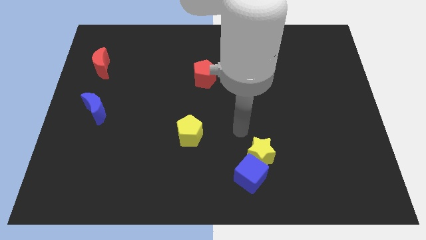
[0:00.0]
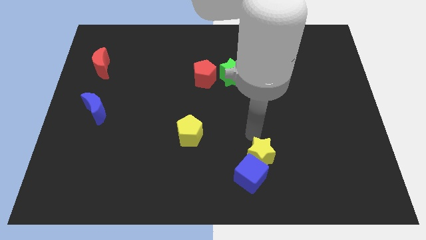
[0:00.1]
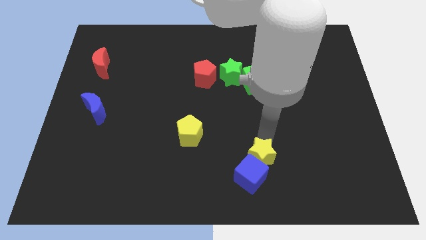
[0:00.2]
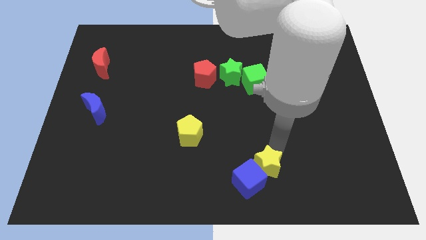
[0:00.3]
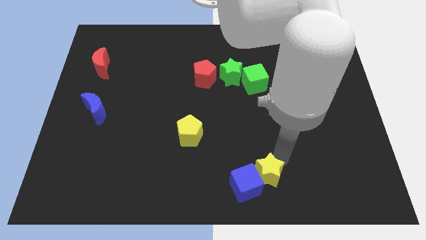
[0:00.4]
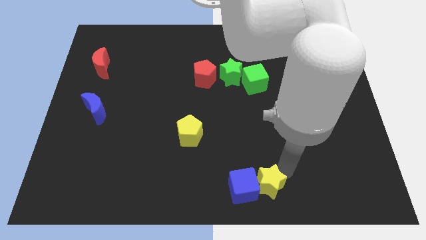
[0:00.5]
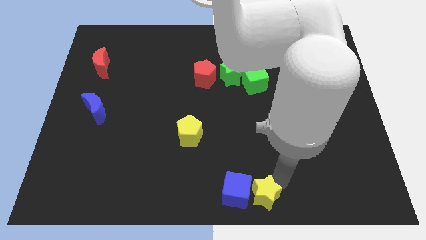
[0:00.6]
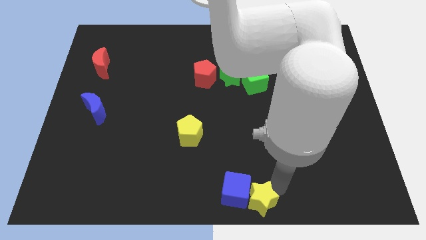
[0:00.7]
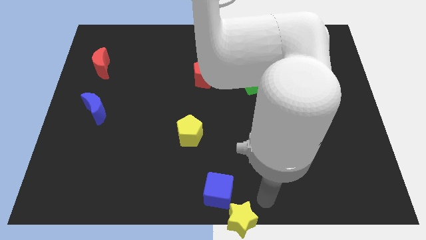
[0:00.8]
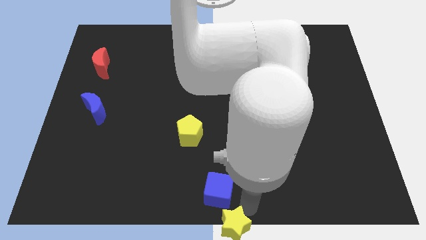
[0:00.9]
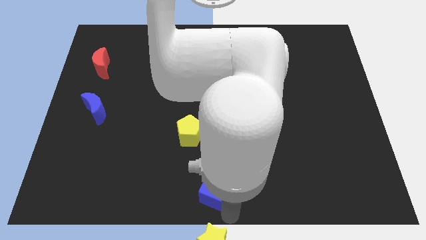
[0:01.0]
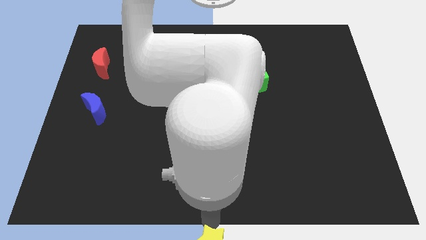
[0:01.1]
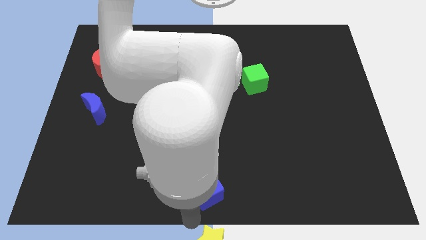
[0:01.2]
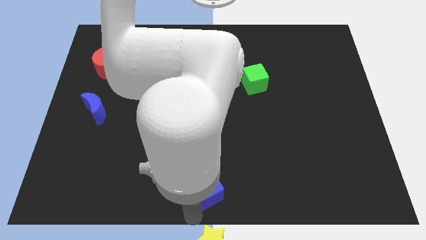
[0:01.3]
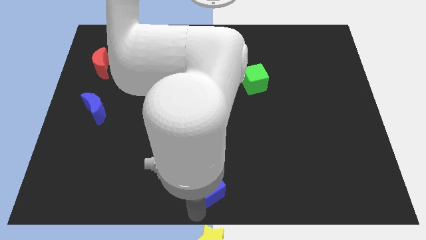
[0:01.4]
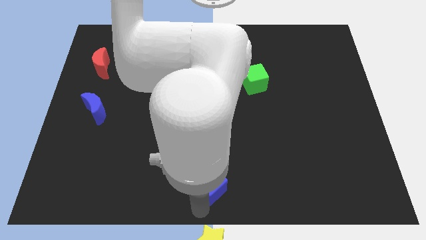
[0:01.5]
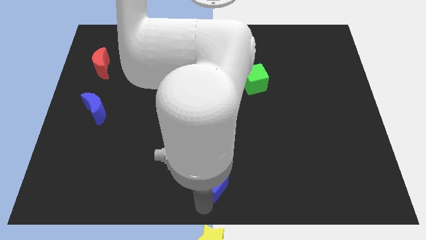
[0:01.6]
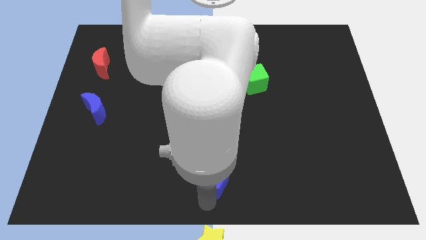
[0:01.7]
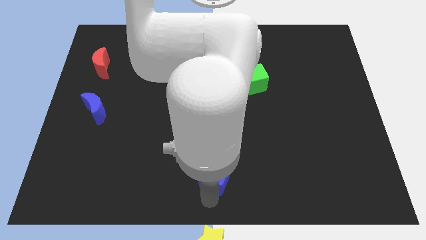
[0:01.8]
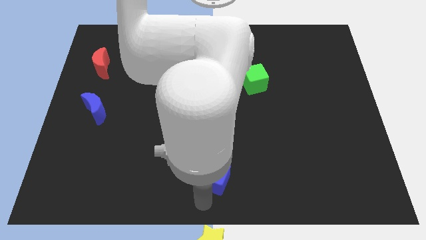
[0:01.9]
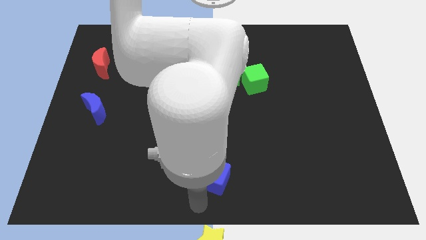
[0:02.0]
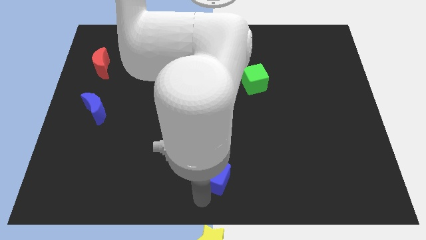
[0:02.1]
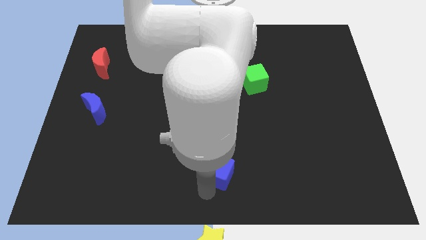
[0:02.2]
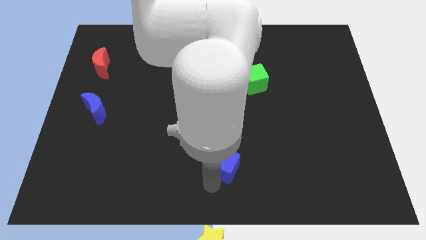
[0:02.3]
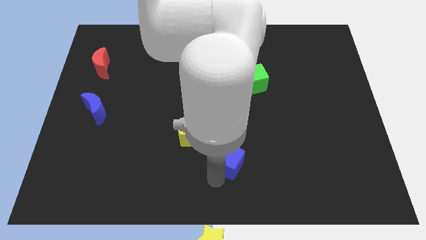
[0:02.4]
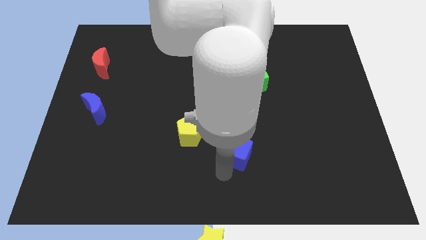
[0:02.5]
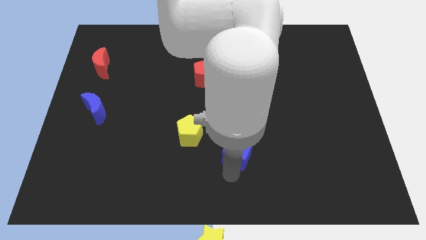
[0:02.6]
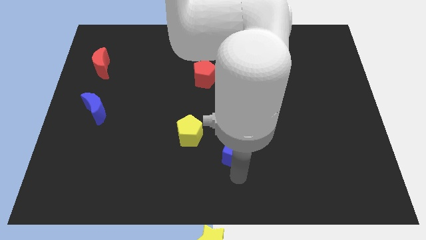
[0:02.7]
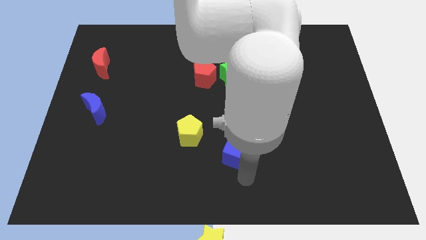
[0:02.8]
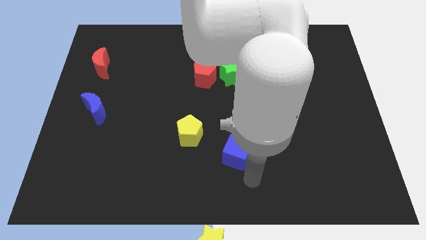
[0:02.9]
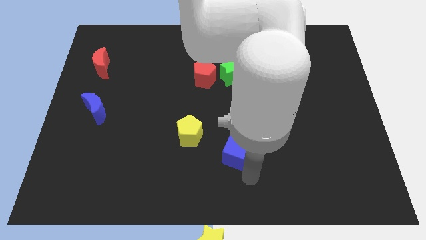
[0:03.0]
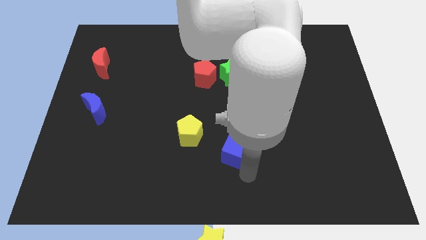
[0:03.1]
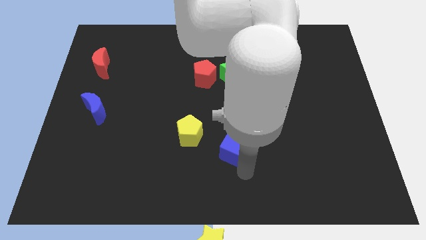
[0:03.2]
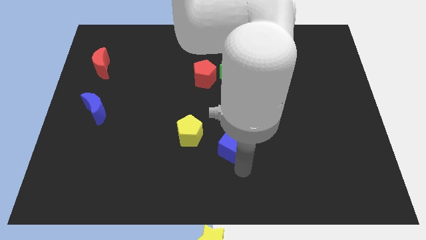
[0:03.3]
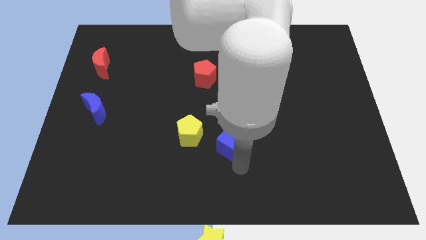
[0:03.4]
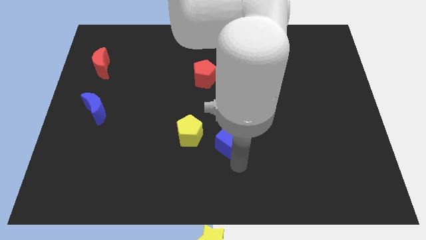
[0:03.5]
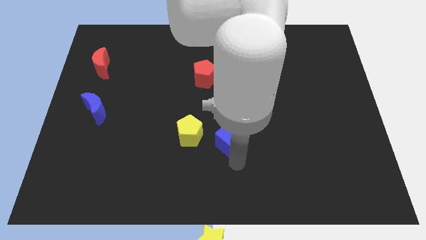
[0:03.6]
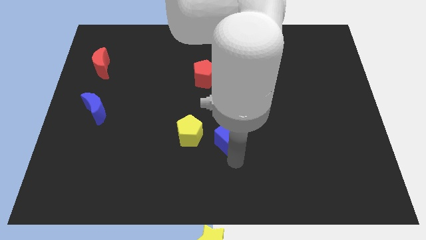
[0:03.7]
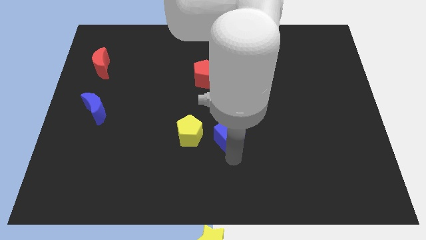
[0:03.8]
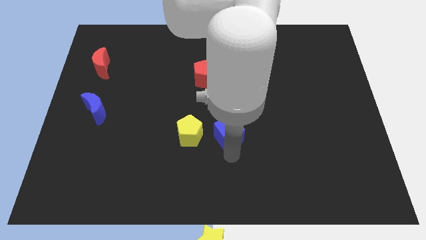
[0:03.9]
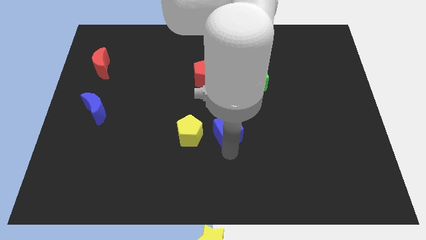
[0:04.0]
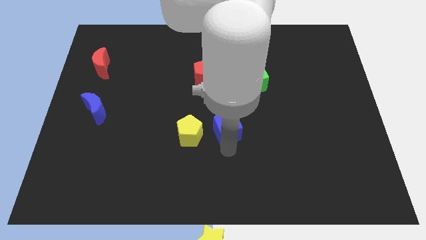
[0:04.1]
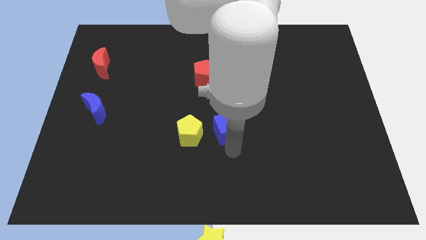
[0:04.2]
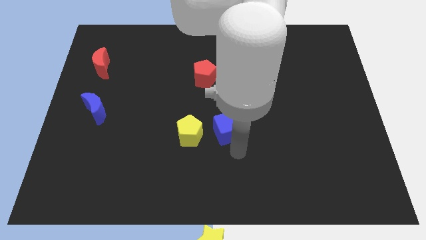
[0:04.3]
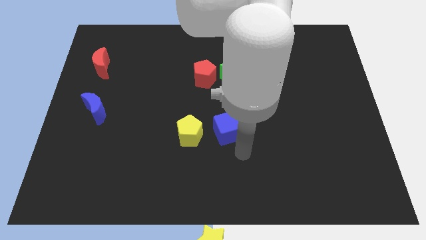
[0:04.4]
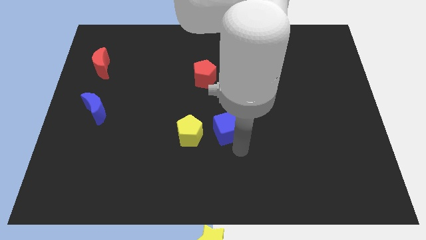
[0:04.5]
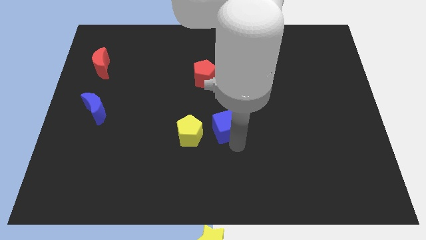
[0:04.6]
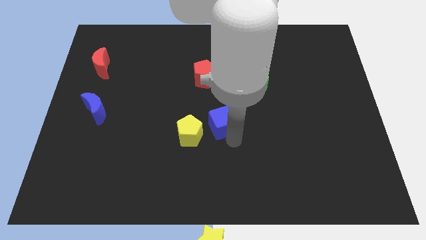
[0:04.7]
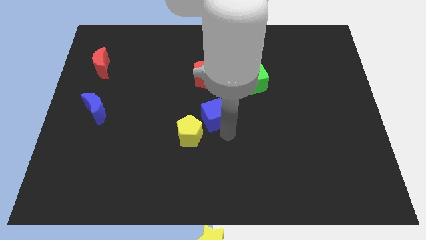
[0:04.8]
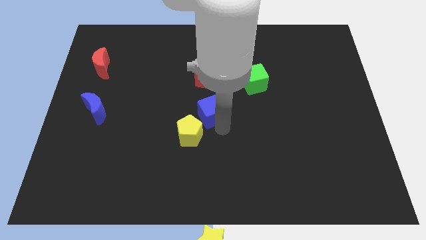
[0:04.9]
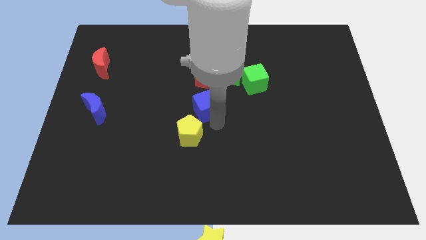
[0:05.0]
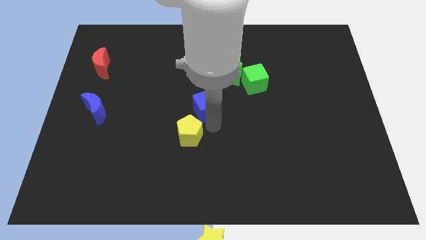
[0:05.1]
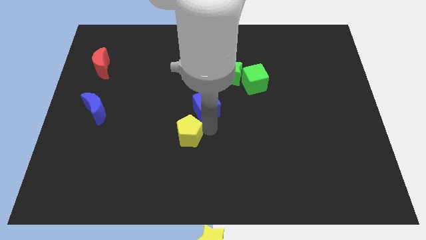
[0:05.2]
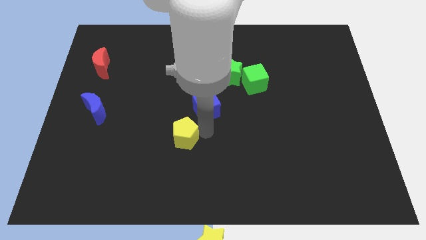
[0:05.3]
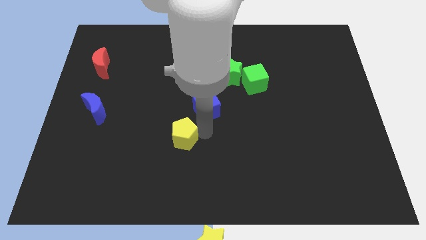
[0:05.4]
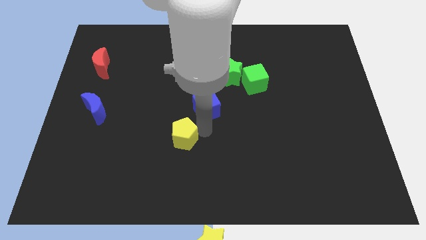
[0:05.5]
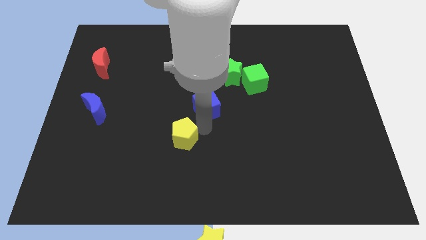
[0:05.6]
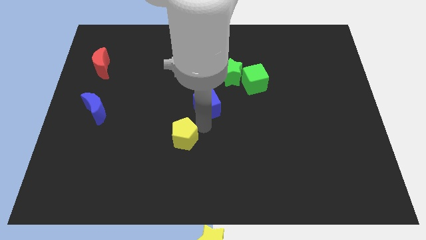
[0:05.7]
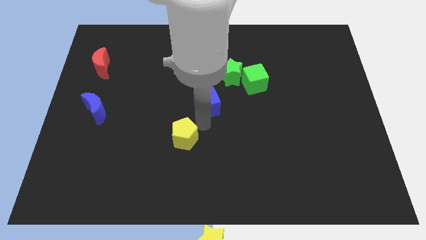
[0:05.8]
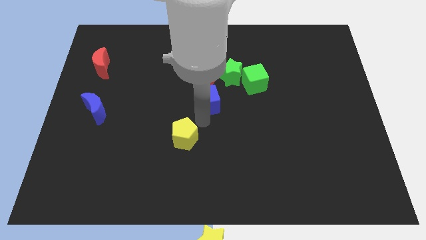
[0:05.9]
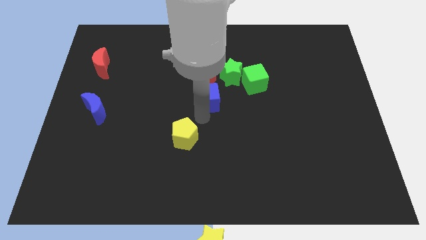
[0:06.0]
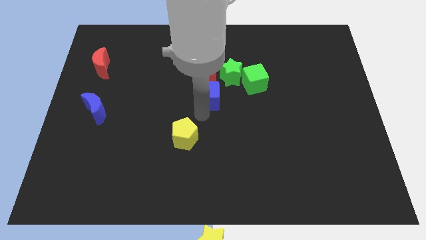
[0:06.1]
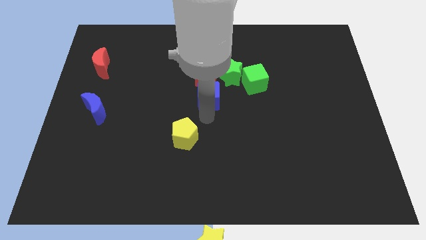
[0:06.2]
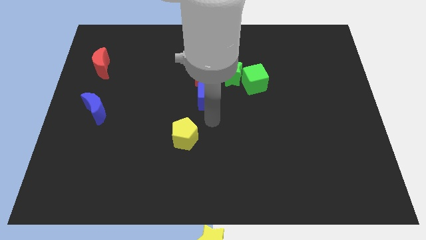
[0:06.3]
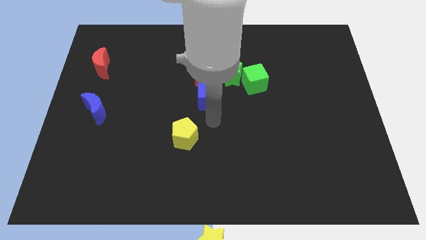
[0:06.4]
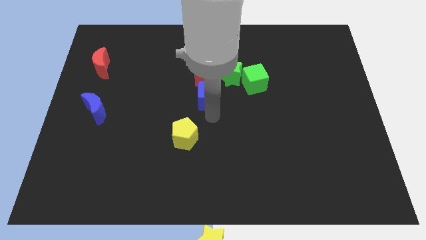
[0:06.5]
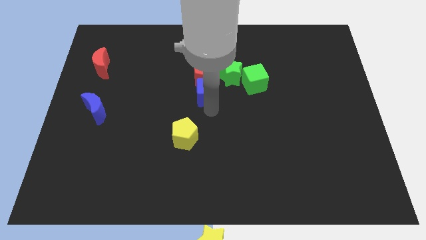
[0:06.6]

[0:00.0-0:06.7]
slide the blue cube to the red pentagon
